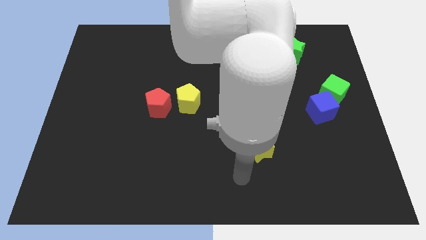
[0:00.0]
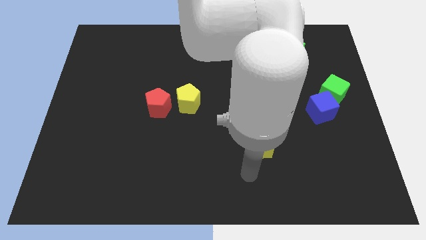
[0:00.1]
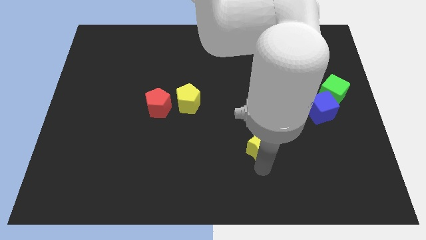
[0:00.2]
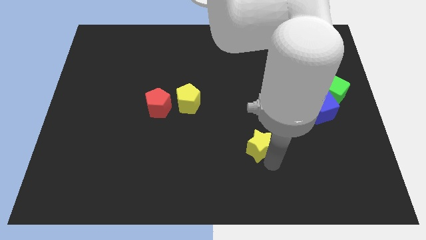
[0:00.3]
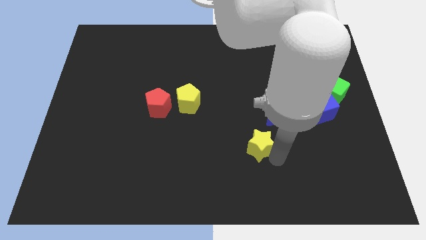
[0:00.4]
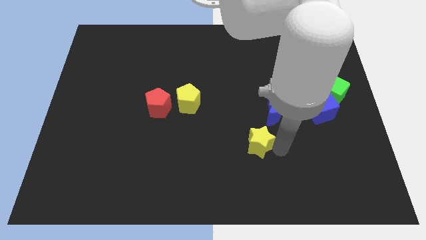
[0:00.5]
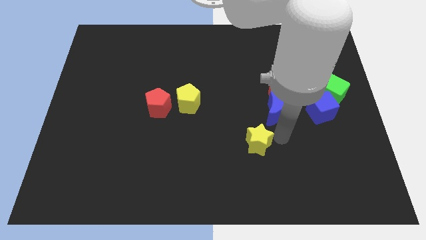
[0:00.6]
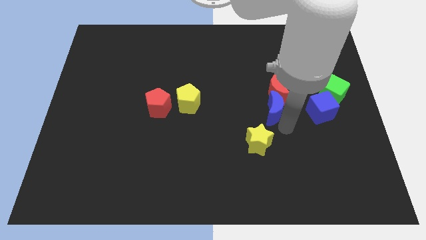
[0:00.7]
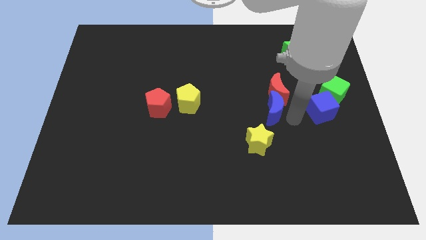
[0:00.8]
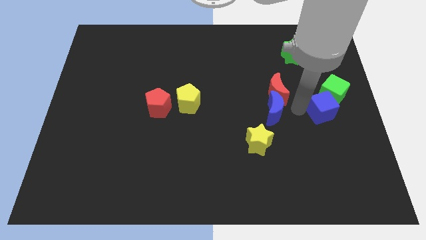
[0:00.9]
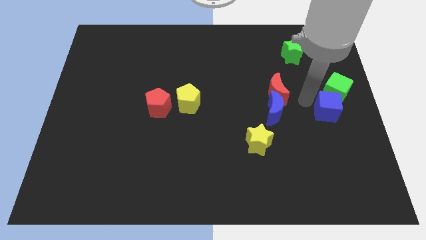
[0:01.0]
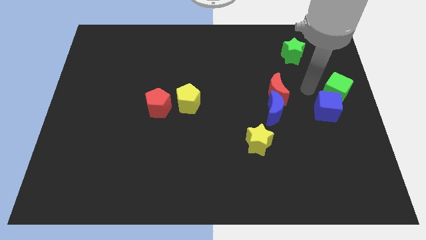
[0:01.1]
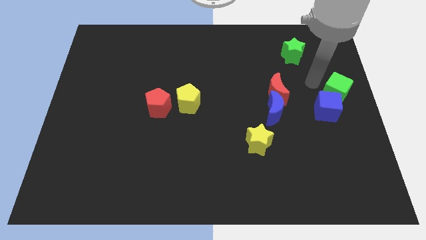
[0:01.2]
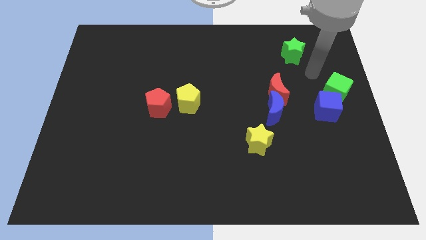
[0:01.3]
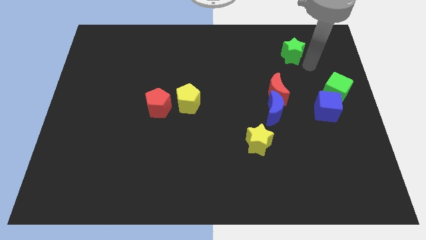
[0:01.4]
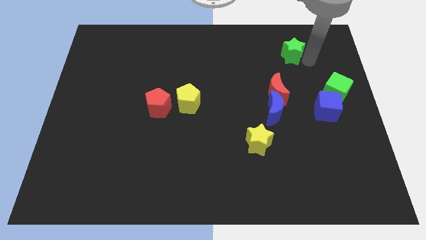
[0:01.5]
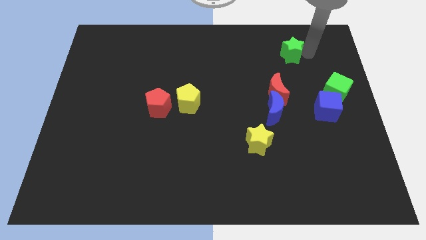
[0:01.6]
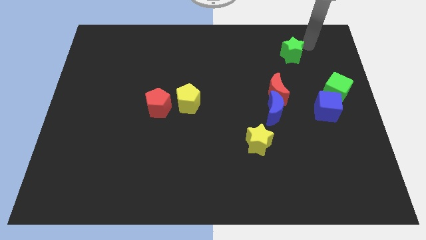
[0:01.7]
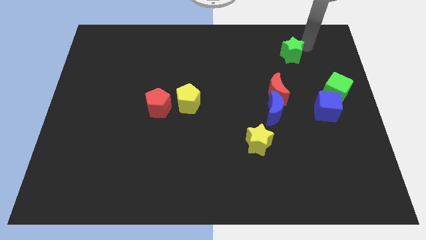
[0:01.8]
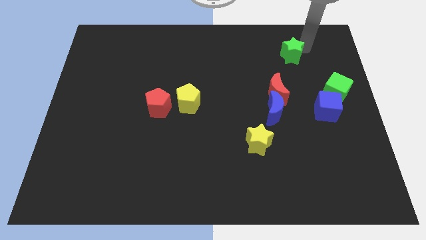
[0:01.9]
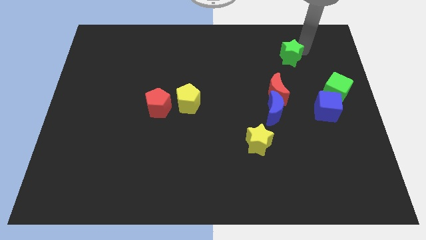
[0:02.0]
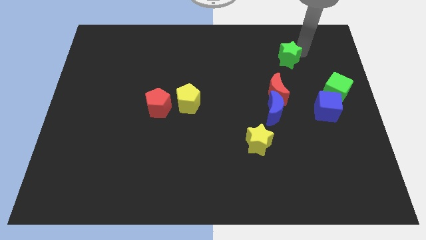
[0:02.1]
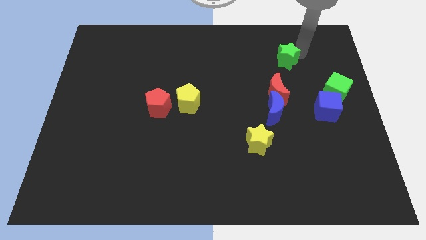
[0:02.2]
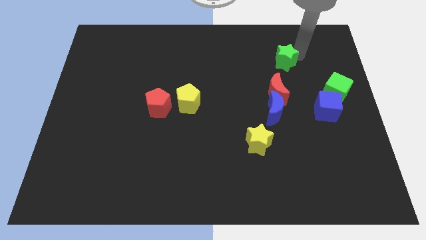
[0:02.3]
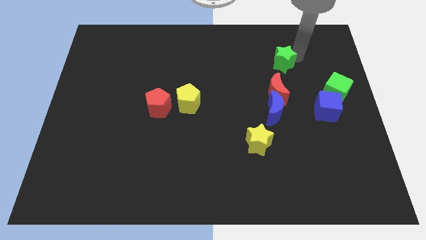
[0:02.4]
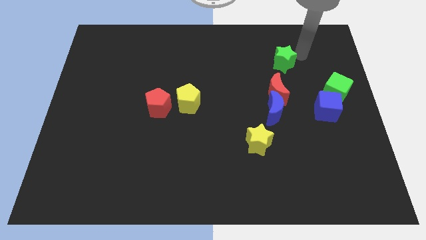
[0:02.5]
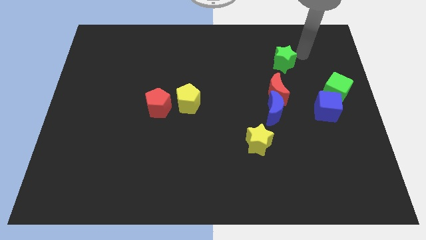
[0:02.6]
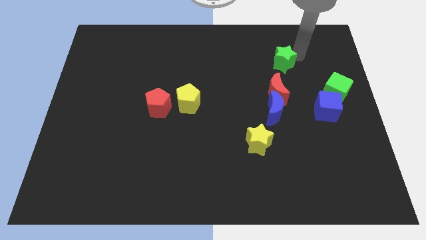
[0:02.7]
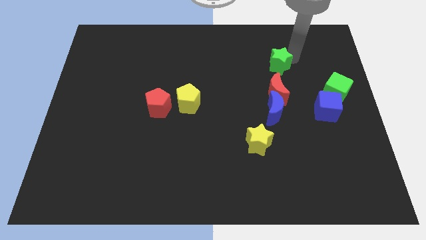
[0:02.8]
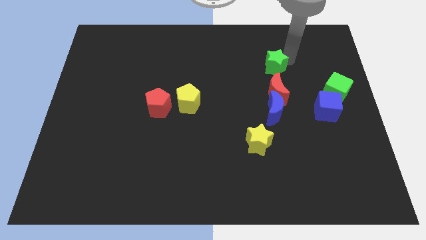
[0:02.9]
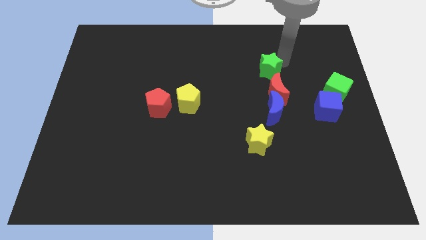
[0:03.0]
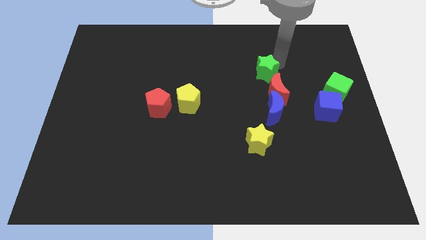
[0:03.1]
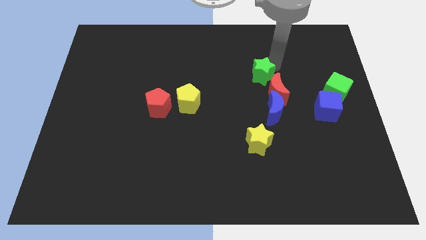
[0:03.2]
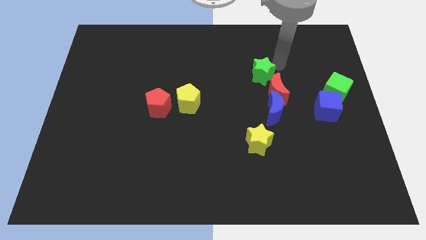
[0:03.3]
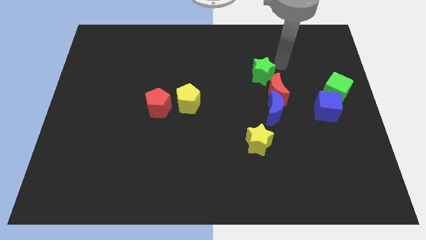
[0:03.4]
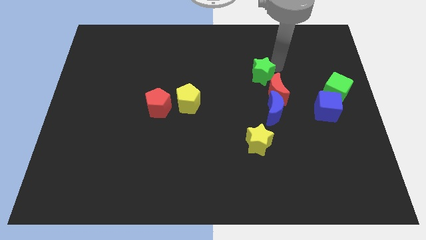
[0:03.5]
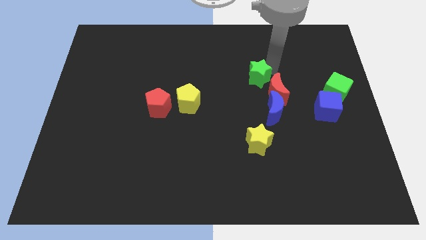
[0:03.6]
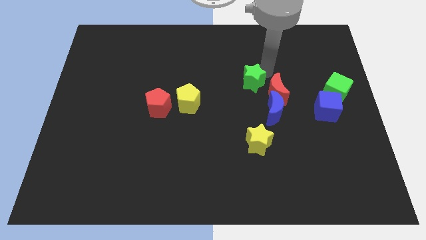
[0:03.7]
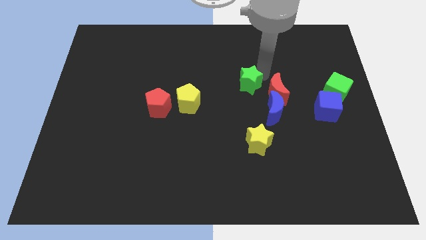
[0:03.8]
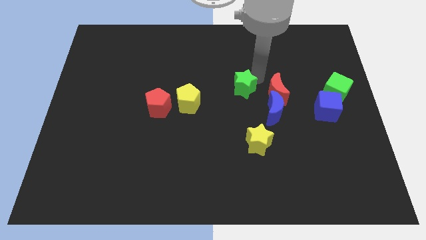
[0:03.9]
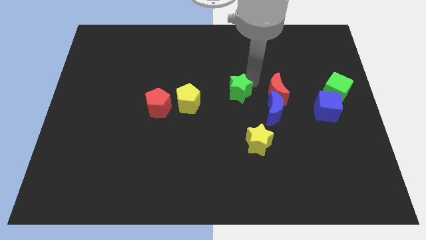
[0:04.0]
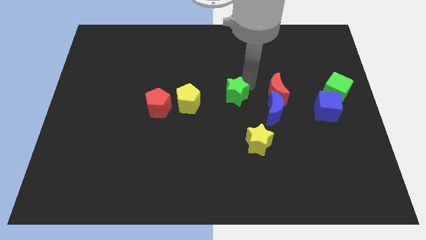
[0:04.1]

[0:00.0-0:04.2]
move the green star downwards and left

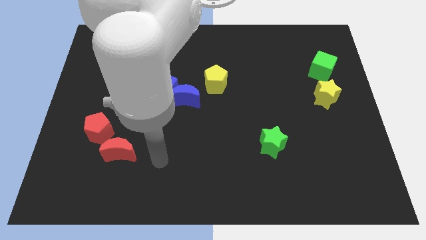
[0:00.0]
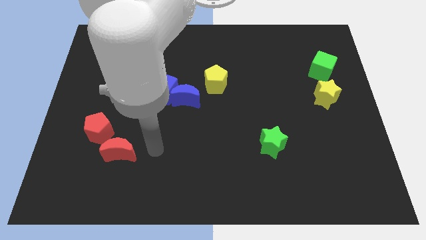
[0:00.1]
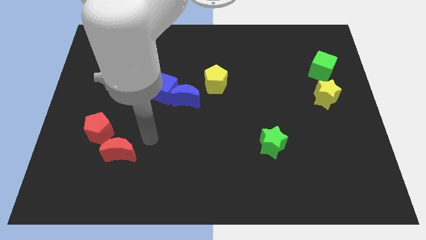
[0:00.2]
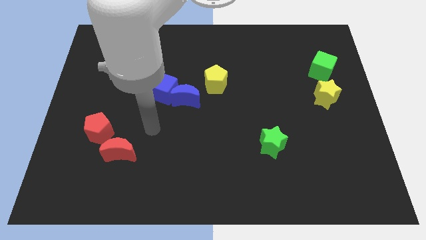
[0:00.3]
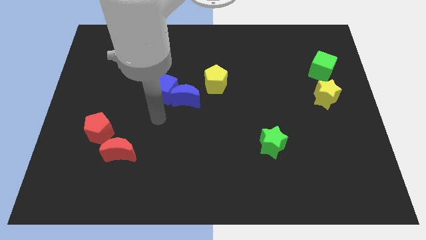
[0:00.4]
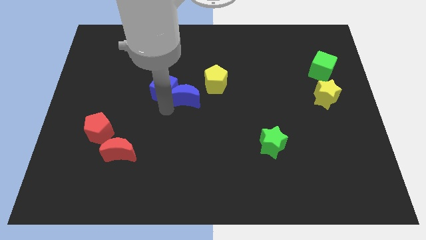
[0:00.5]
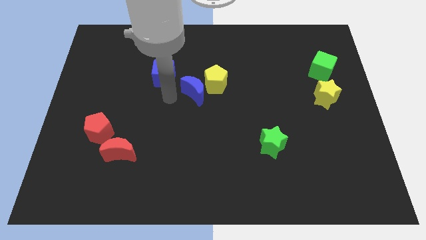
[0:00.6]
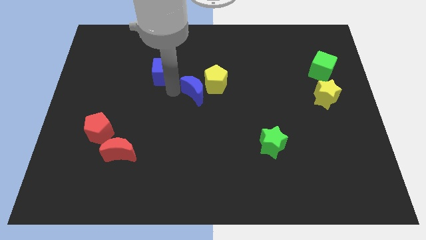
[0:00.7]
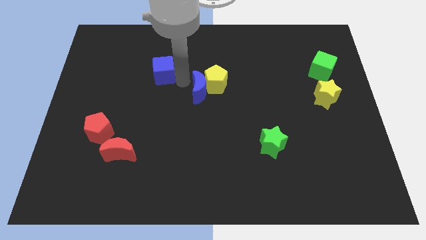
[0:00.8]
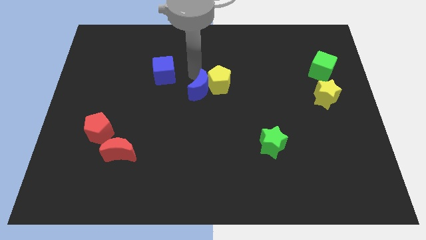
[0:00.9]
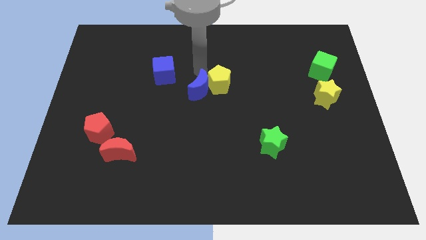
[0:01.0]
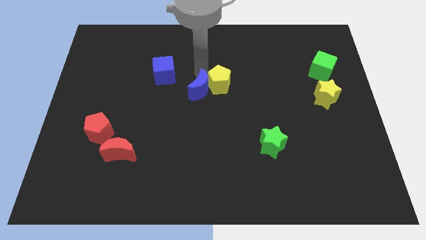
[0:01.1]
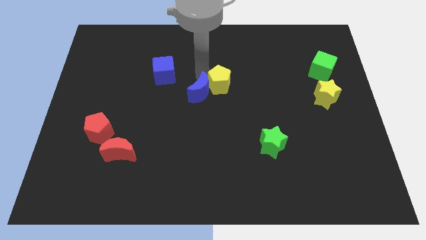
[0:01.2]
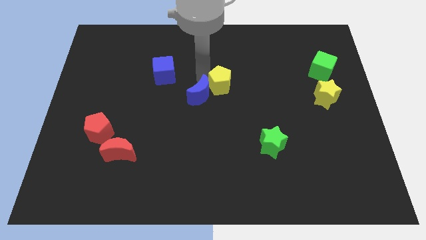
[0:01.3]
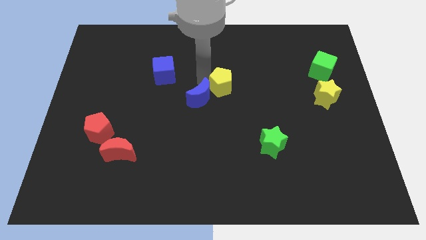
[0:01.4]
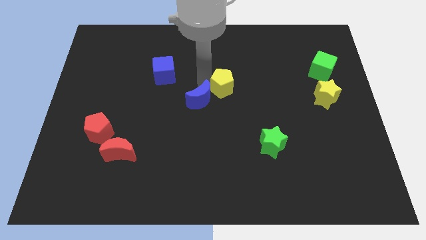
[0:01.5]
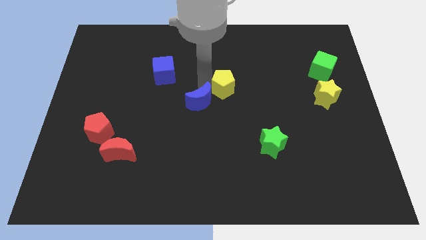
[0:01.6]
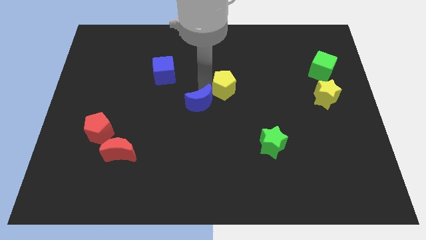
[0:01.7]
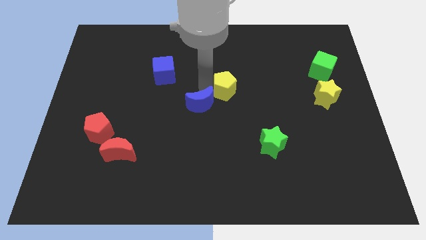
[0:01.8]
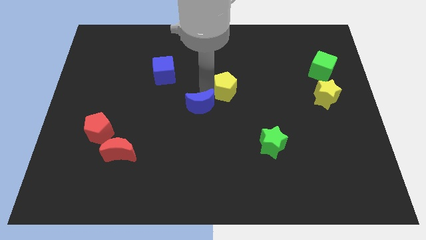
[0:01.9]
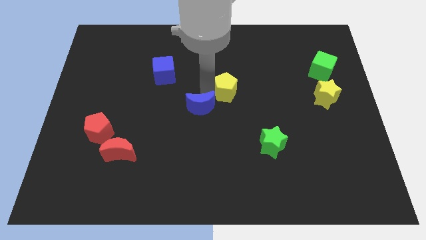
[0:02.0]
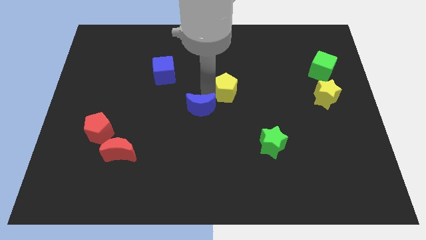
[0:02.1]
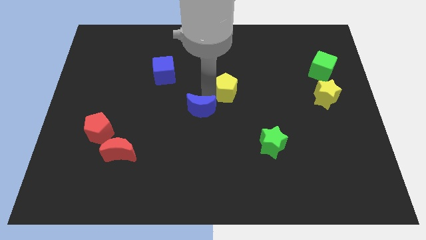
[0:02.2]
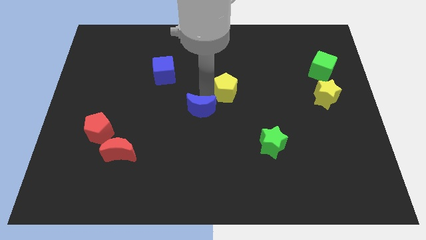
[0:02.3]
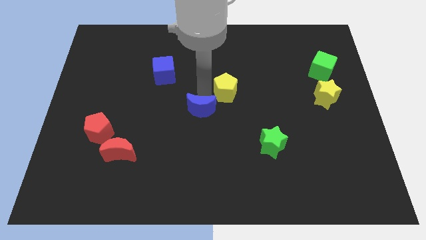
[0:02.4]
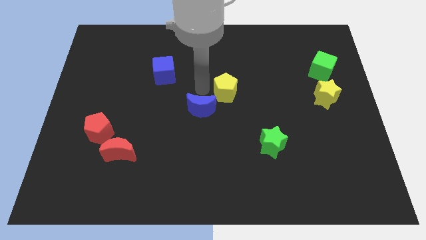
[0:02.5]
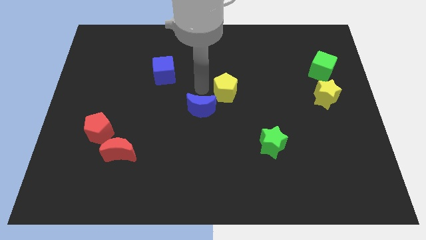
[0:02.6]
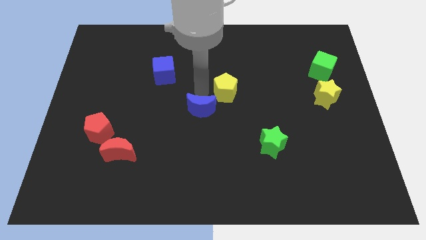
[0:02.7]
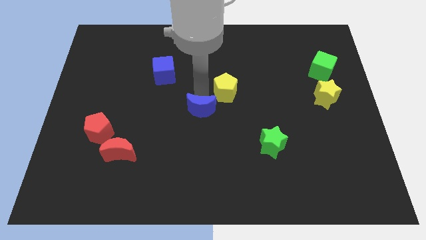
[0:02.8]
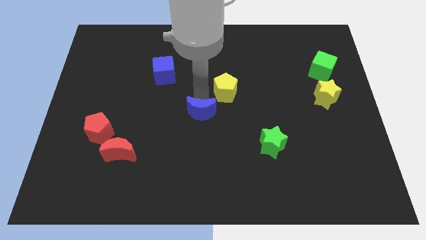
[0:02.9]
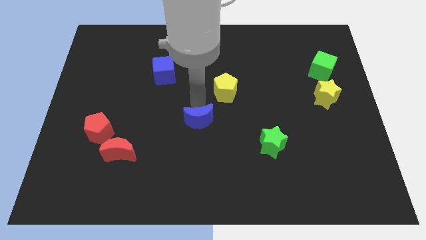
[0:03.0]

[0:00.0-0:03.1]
slightly push the blue moon down and right

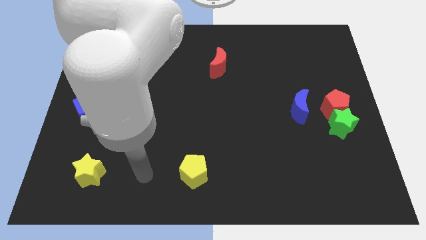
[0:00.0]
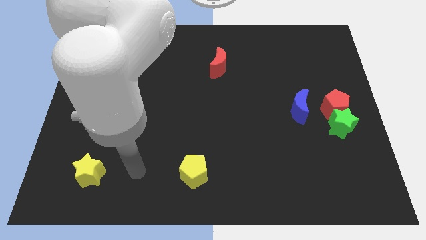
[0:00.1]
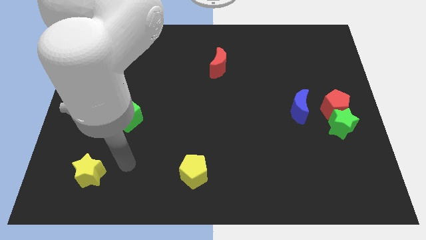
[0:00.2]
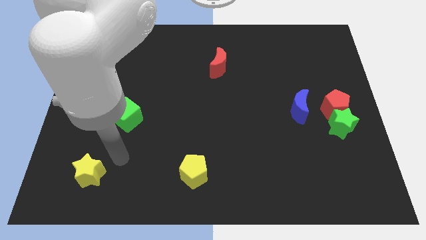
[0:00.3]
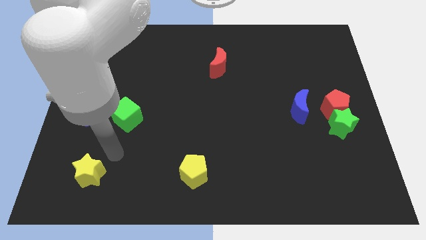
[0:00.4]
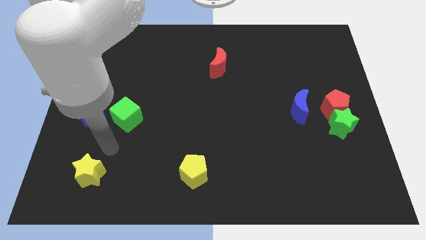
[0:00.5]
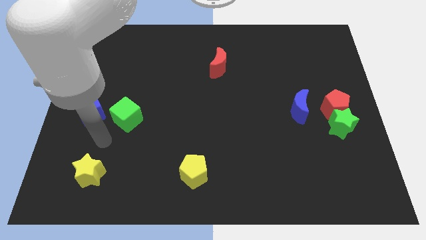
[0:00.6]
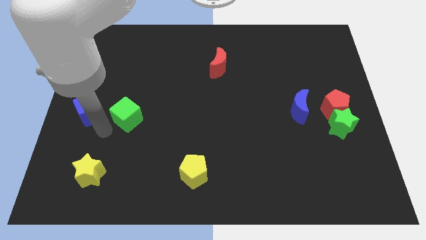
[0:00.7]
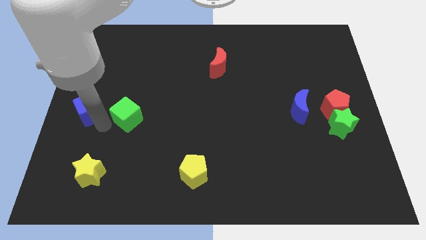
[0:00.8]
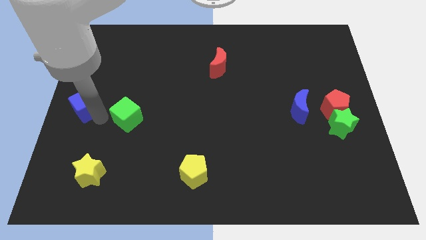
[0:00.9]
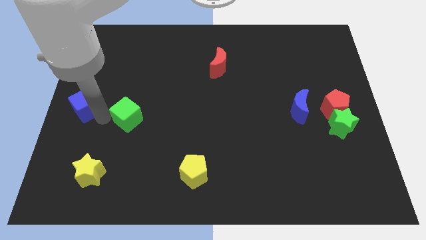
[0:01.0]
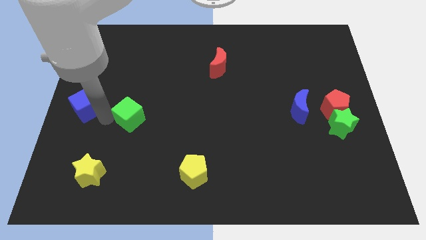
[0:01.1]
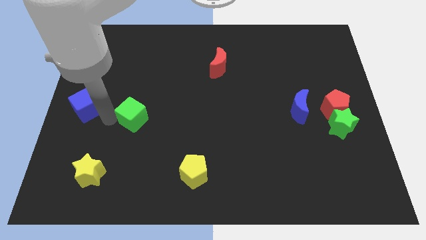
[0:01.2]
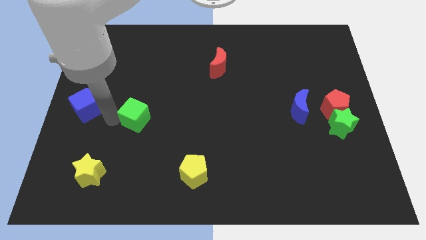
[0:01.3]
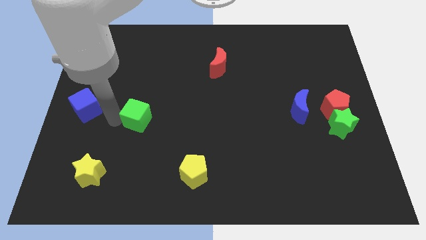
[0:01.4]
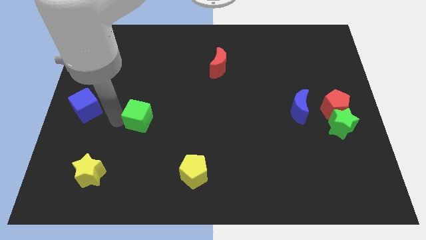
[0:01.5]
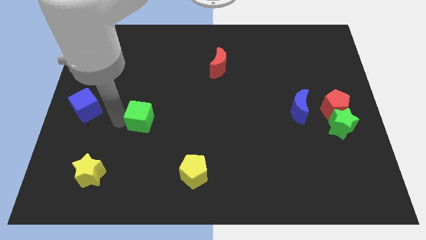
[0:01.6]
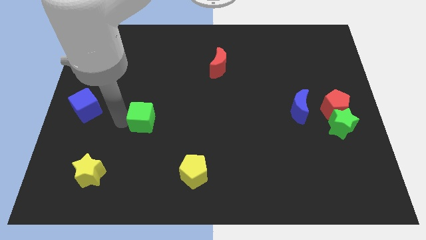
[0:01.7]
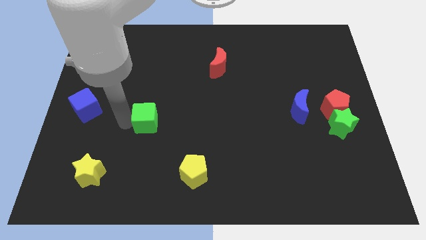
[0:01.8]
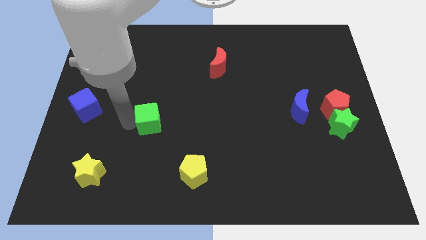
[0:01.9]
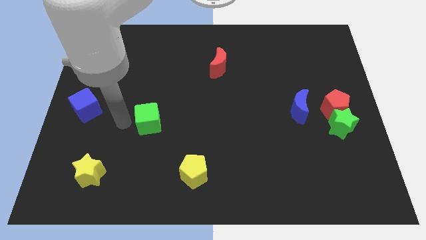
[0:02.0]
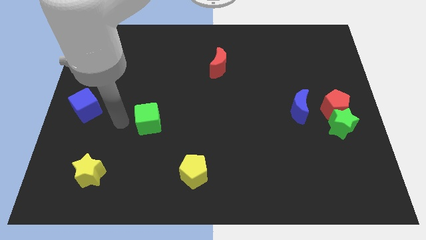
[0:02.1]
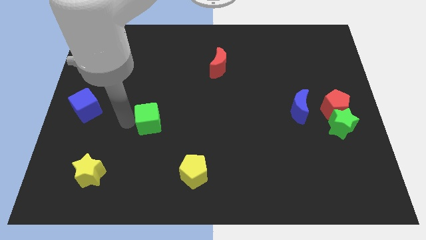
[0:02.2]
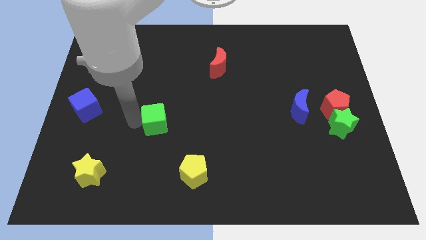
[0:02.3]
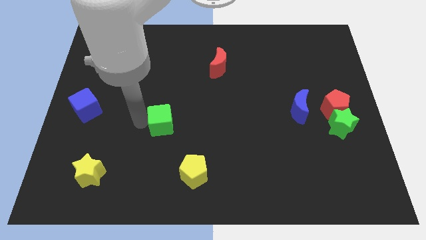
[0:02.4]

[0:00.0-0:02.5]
slightly move the green cube right
